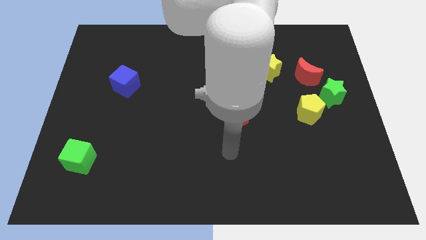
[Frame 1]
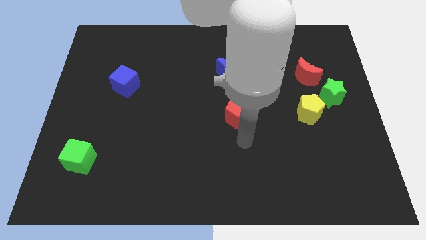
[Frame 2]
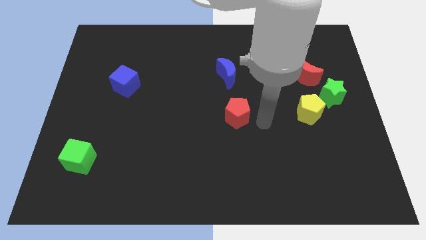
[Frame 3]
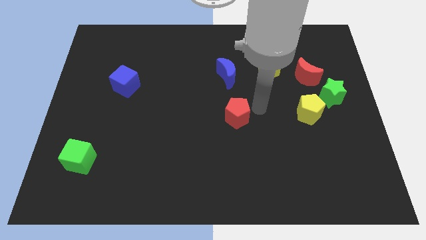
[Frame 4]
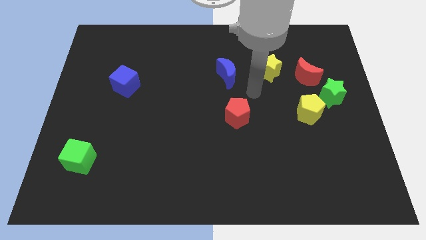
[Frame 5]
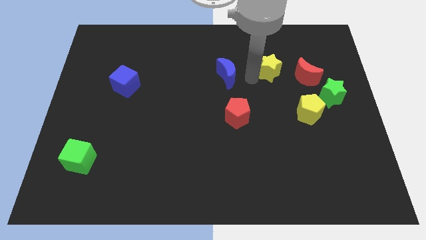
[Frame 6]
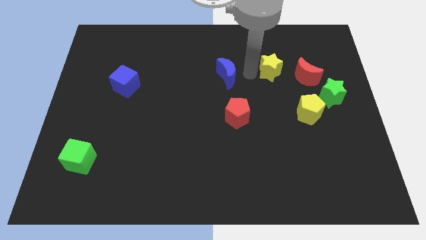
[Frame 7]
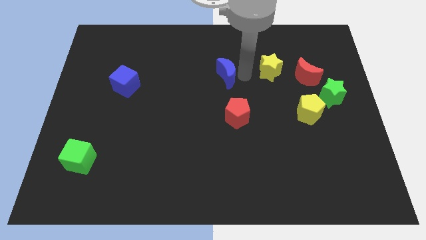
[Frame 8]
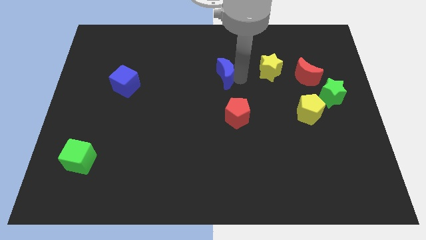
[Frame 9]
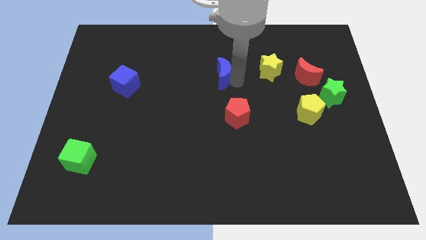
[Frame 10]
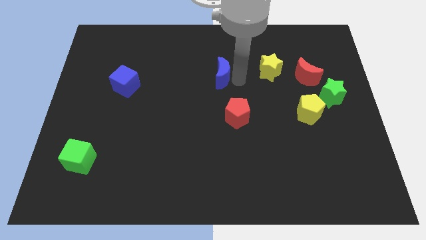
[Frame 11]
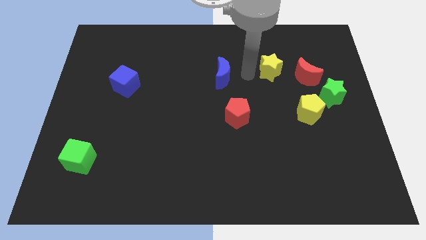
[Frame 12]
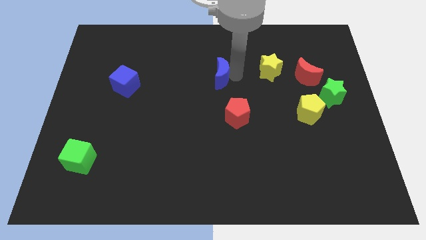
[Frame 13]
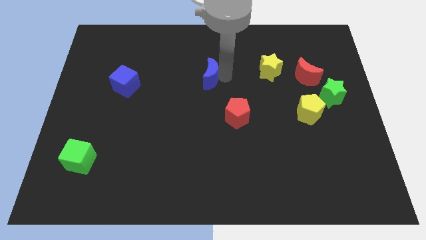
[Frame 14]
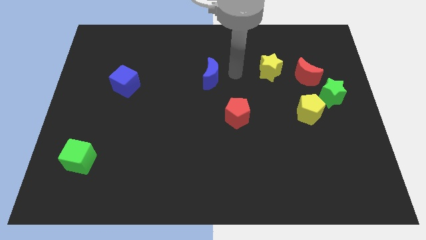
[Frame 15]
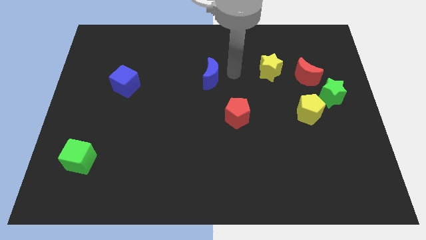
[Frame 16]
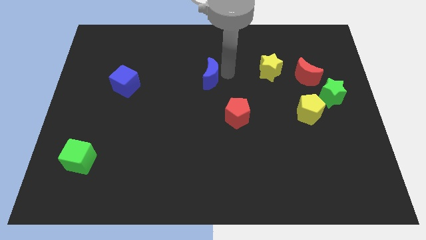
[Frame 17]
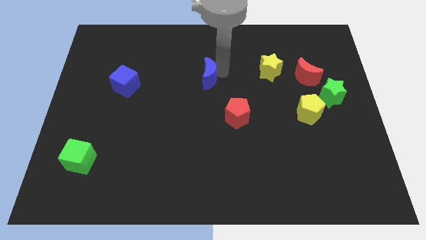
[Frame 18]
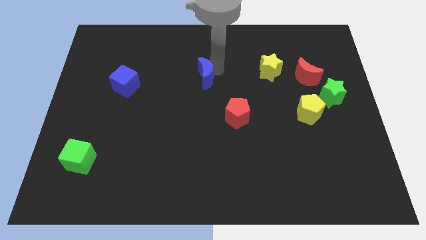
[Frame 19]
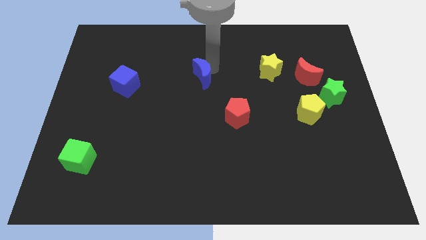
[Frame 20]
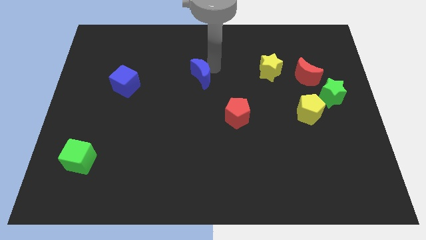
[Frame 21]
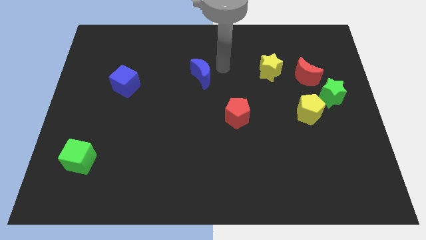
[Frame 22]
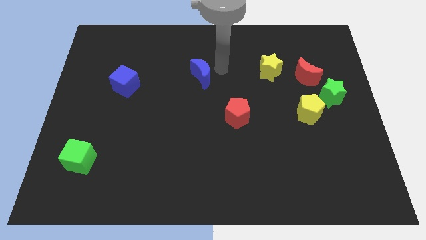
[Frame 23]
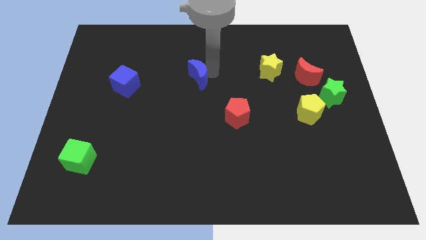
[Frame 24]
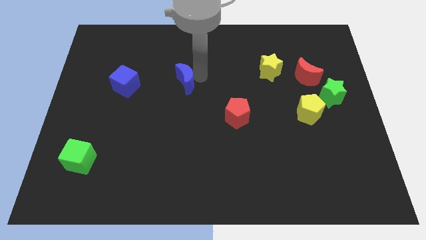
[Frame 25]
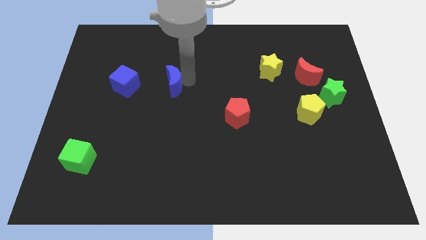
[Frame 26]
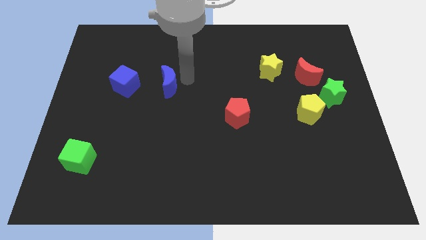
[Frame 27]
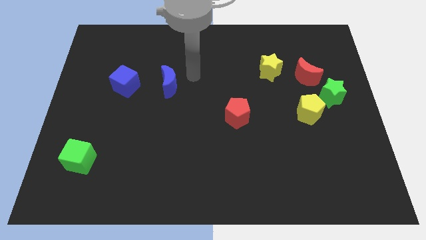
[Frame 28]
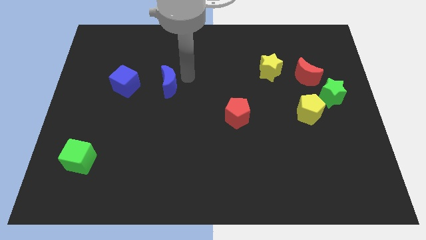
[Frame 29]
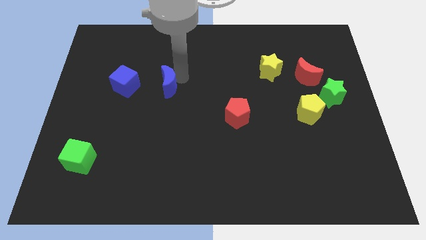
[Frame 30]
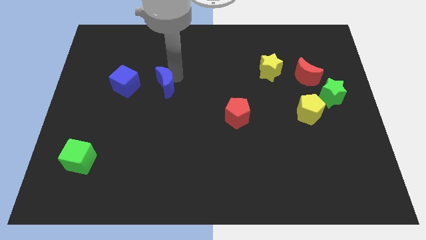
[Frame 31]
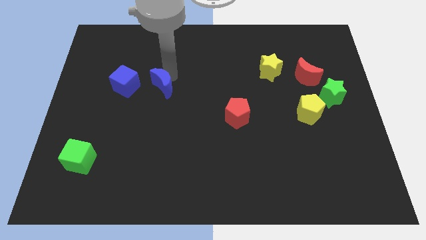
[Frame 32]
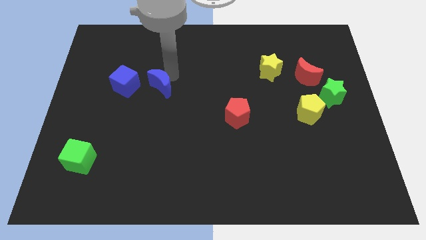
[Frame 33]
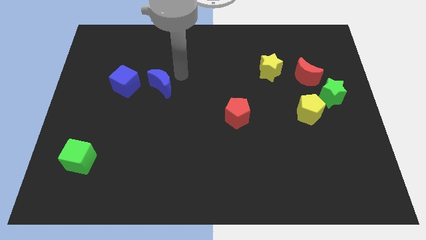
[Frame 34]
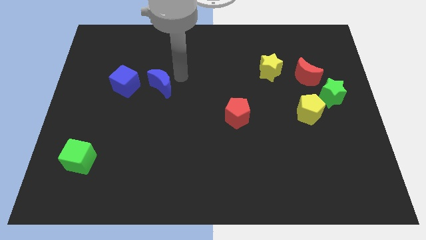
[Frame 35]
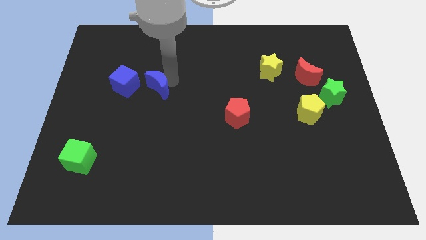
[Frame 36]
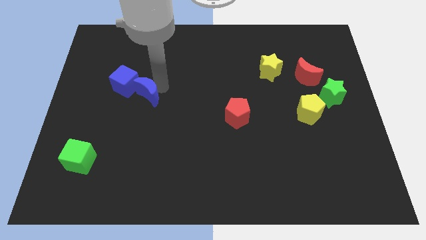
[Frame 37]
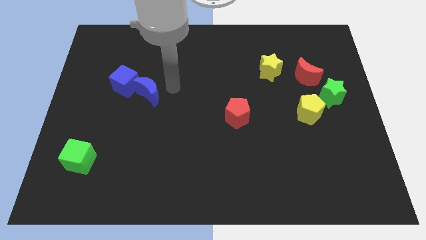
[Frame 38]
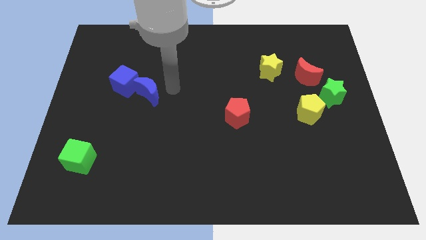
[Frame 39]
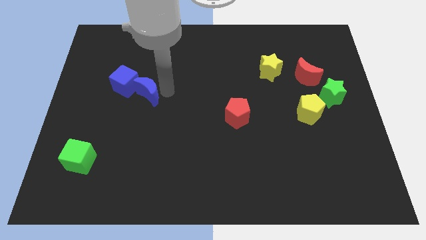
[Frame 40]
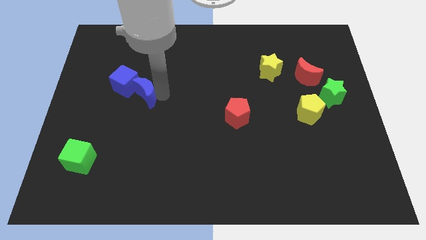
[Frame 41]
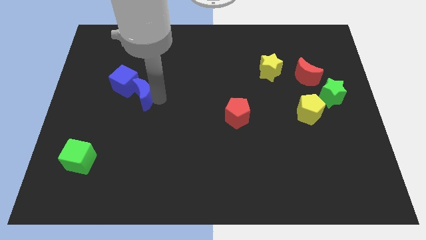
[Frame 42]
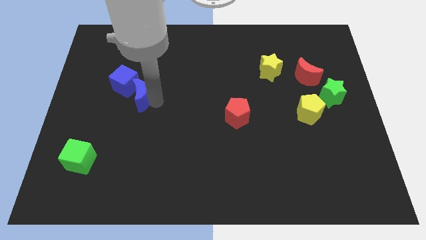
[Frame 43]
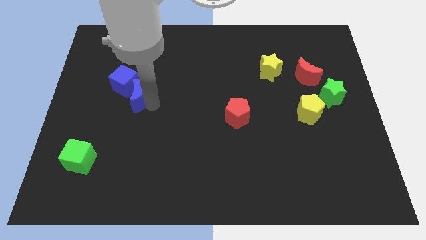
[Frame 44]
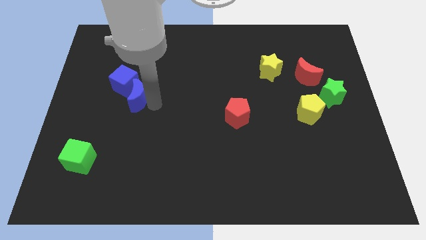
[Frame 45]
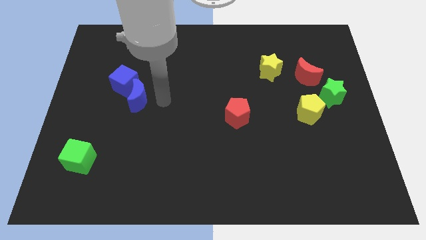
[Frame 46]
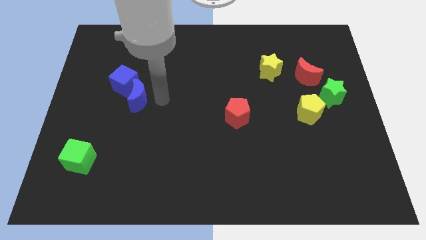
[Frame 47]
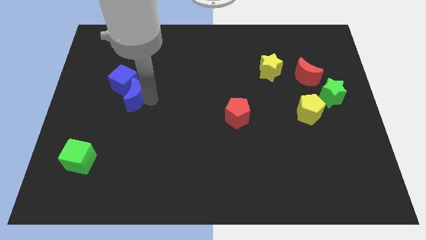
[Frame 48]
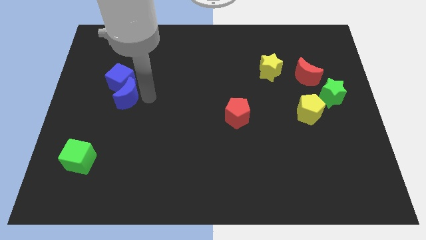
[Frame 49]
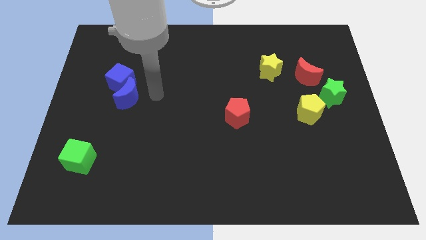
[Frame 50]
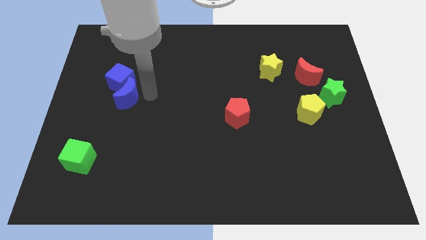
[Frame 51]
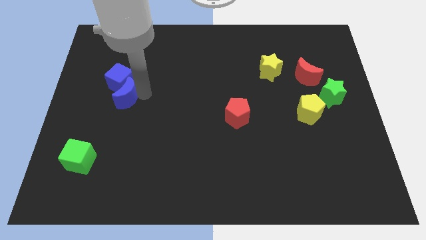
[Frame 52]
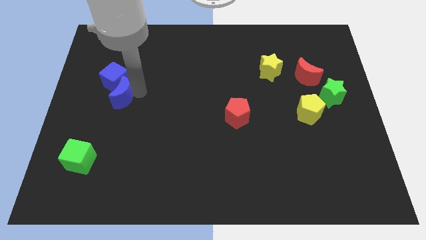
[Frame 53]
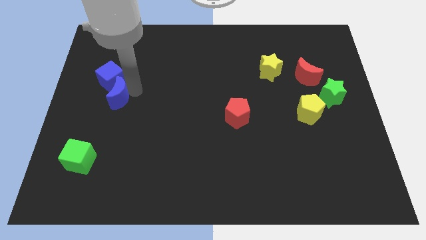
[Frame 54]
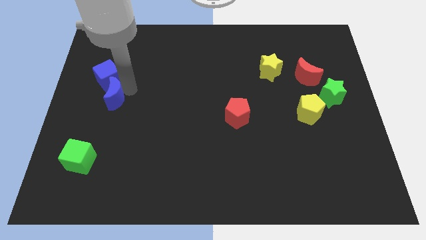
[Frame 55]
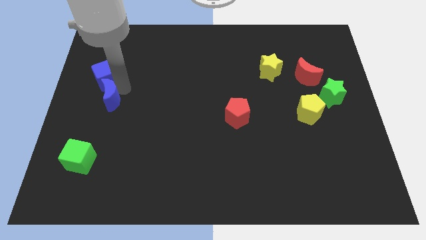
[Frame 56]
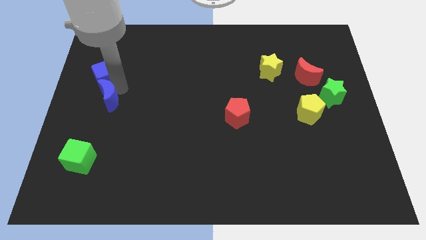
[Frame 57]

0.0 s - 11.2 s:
slide the blue moon to the center left

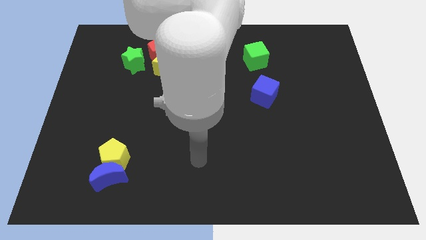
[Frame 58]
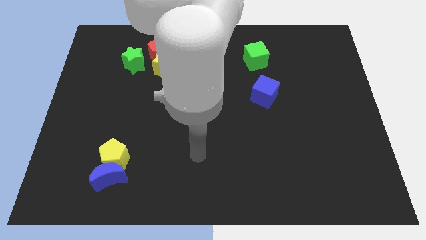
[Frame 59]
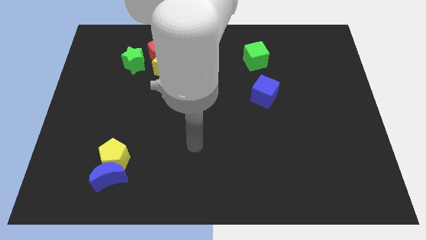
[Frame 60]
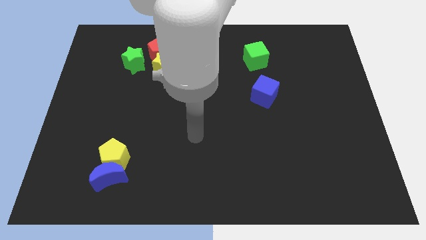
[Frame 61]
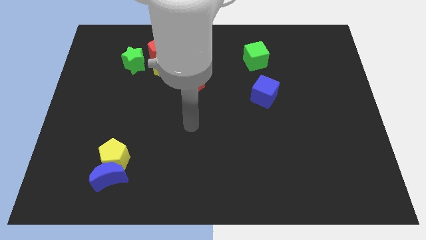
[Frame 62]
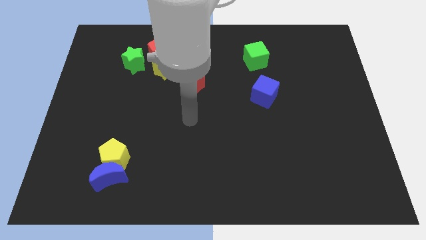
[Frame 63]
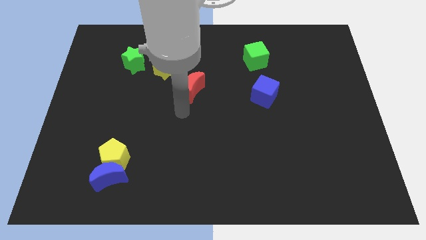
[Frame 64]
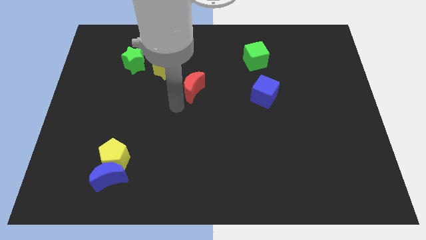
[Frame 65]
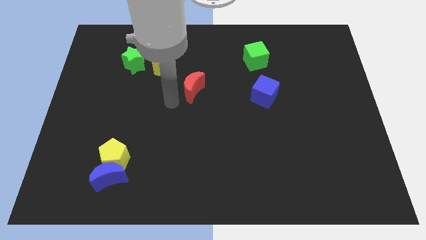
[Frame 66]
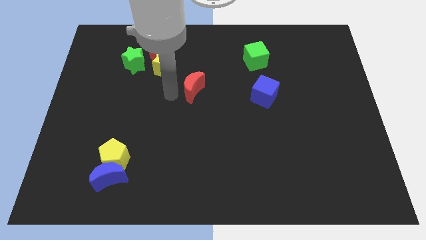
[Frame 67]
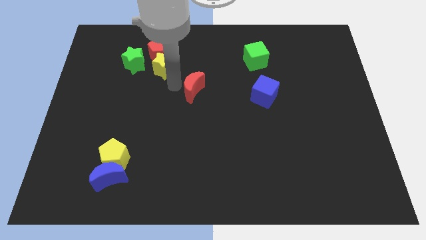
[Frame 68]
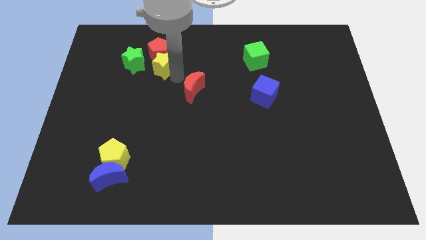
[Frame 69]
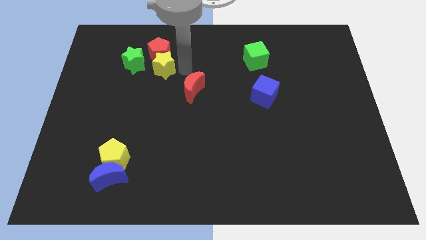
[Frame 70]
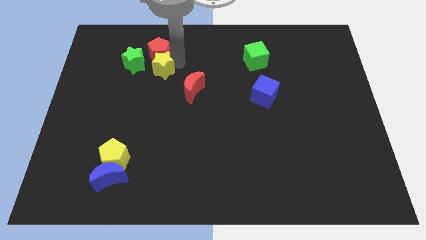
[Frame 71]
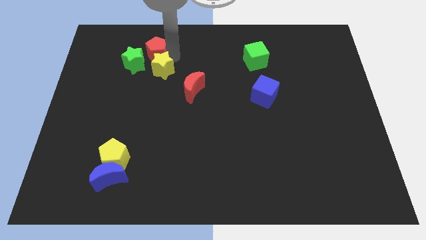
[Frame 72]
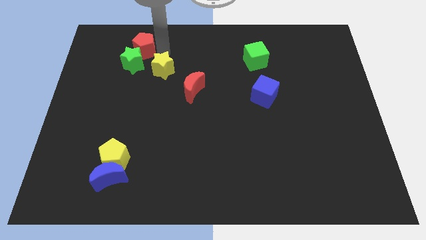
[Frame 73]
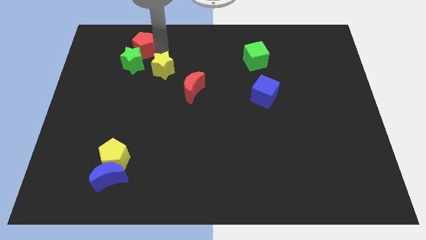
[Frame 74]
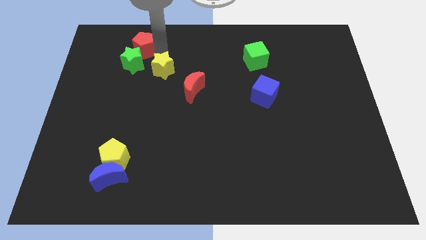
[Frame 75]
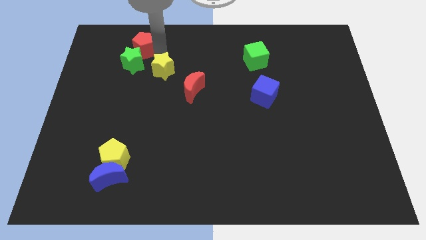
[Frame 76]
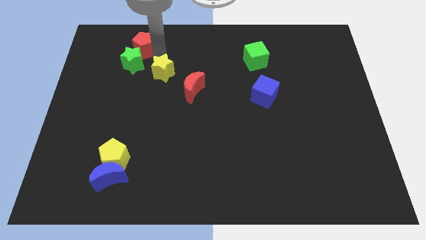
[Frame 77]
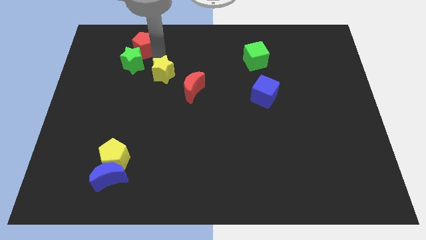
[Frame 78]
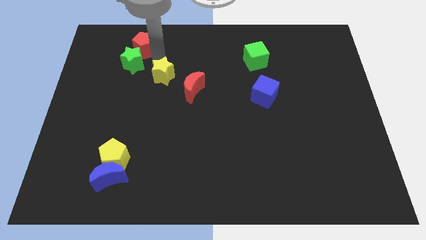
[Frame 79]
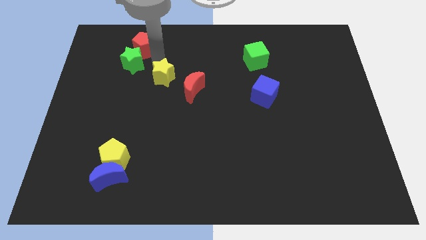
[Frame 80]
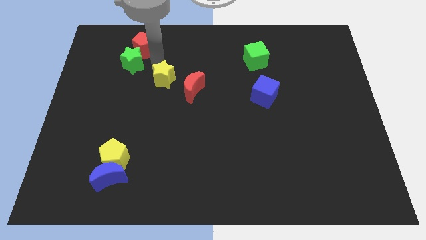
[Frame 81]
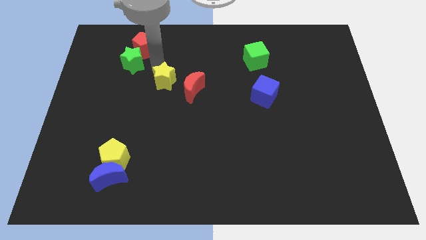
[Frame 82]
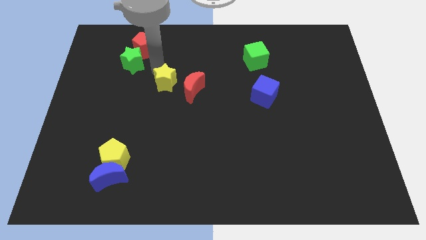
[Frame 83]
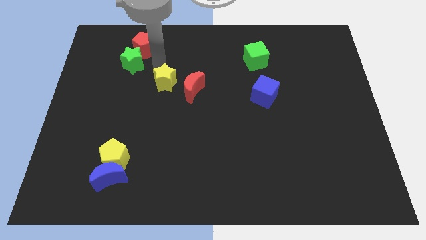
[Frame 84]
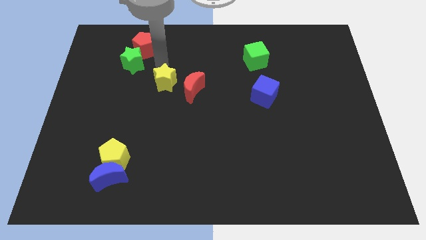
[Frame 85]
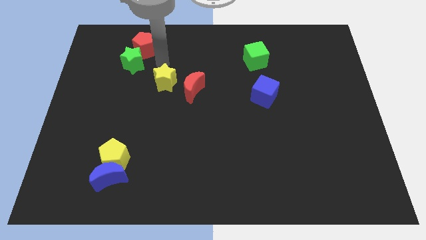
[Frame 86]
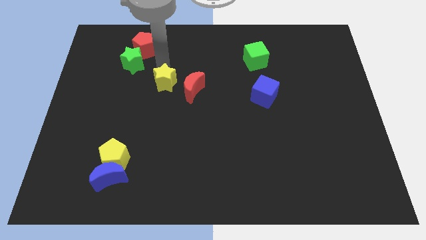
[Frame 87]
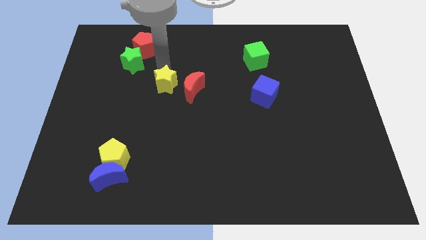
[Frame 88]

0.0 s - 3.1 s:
push the yellow star to the middle of the board
